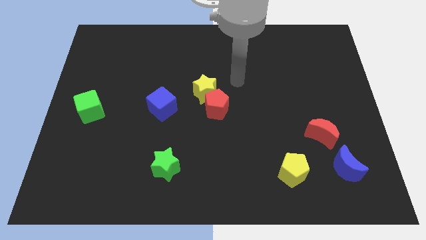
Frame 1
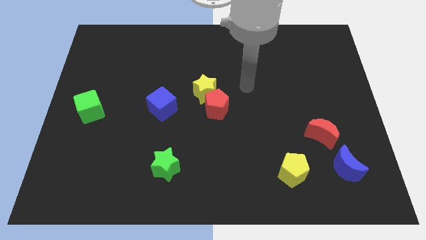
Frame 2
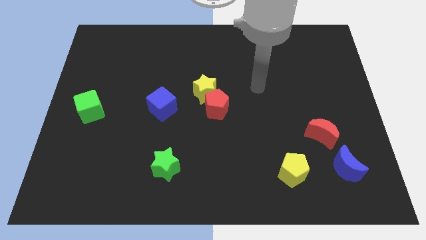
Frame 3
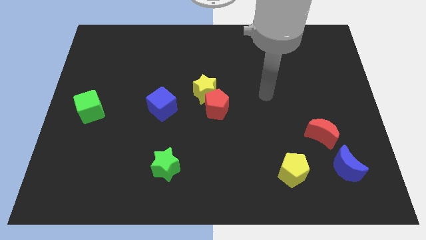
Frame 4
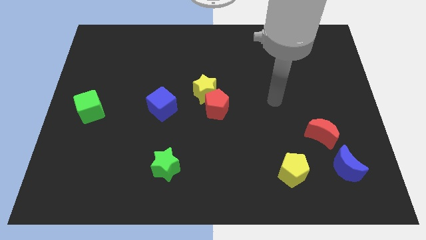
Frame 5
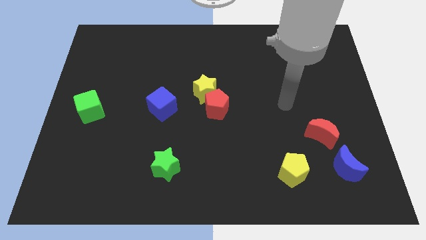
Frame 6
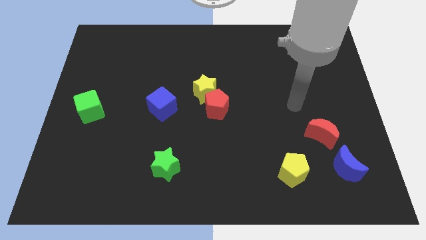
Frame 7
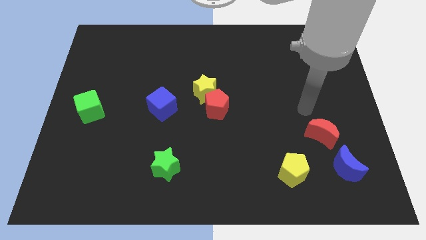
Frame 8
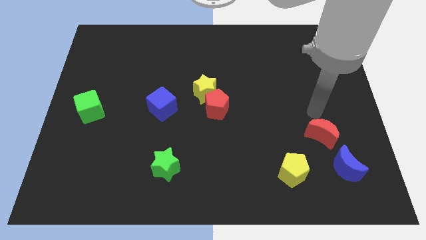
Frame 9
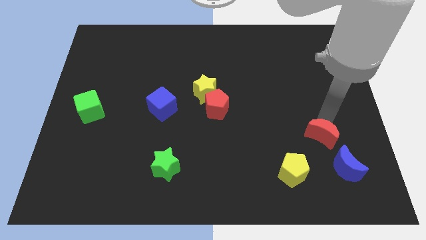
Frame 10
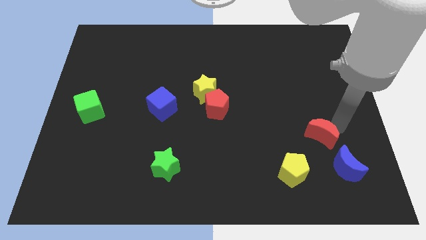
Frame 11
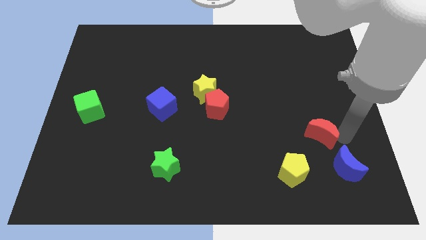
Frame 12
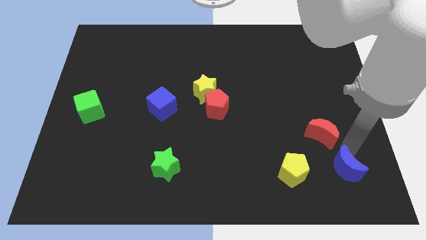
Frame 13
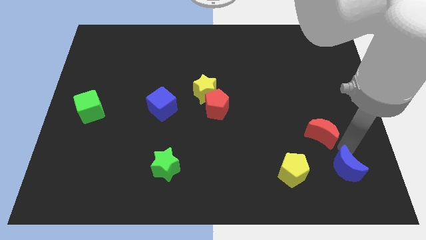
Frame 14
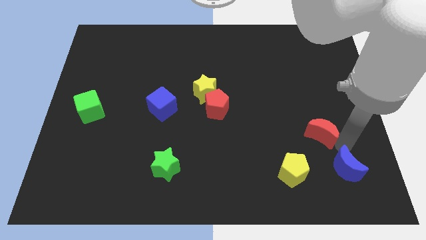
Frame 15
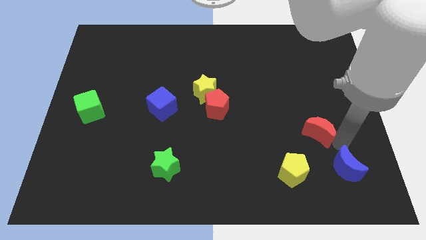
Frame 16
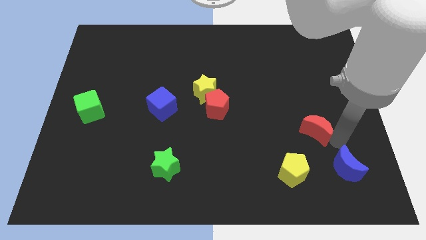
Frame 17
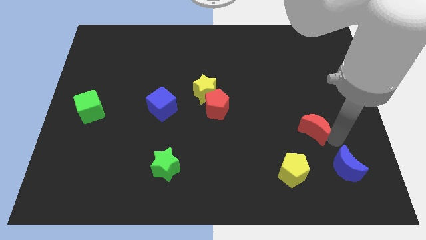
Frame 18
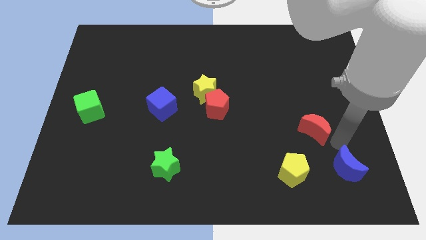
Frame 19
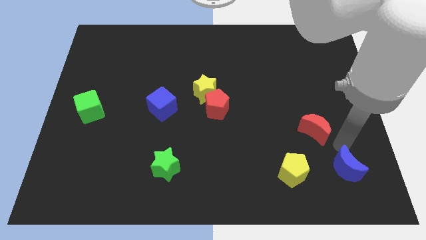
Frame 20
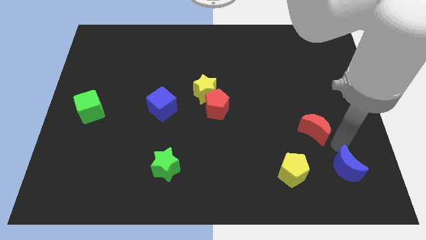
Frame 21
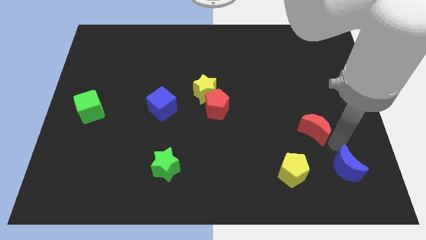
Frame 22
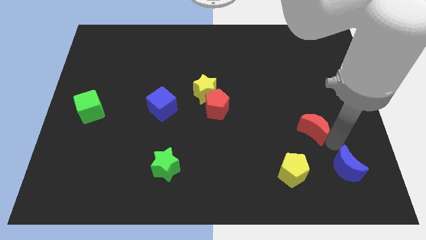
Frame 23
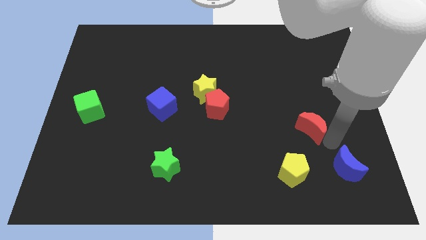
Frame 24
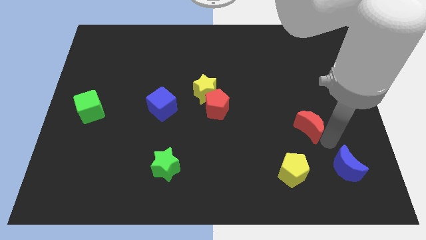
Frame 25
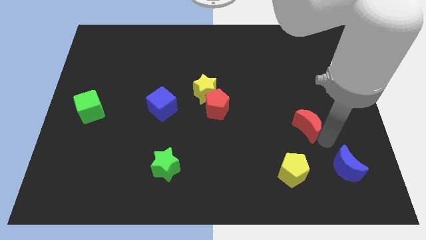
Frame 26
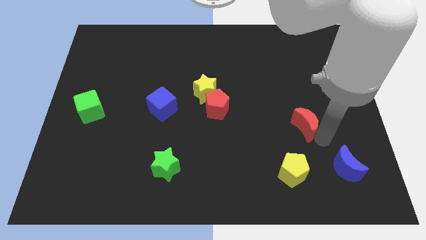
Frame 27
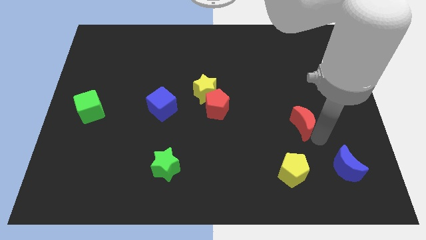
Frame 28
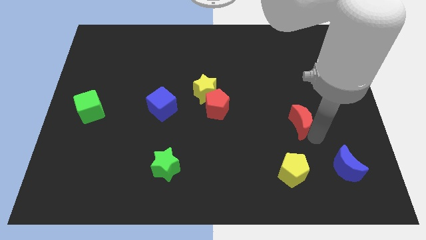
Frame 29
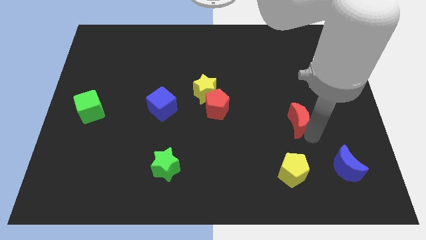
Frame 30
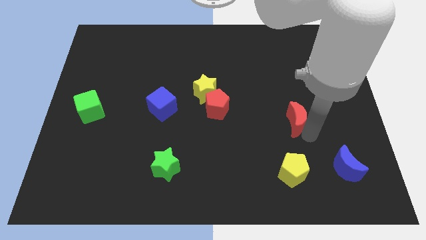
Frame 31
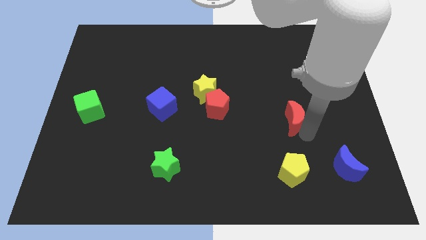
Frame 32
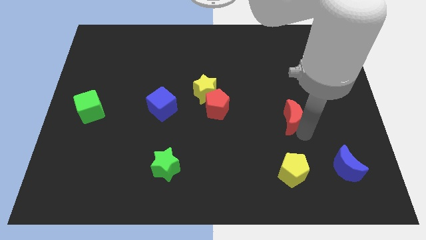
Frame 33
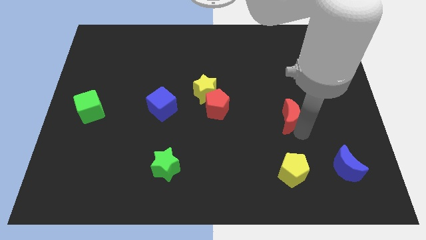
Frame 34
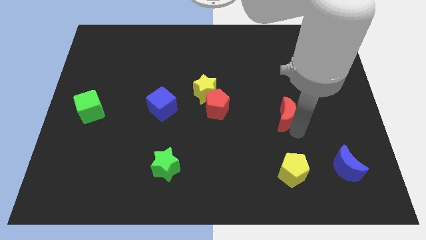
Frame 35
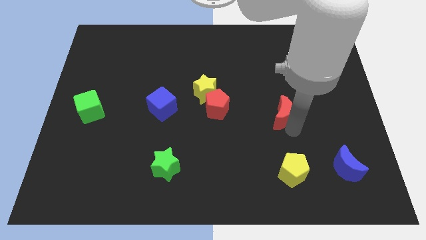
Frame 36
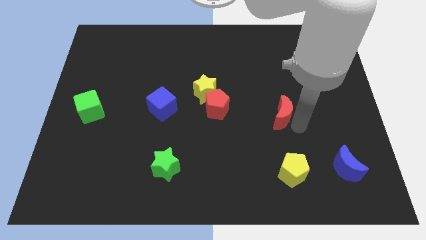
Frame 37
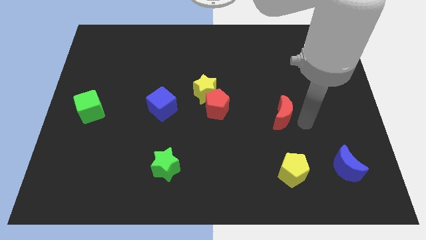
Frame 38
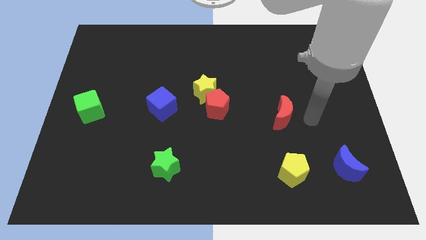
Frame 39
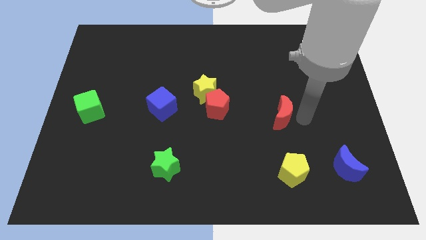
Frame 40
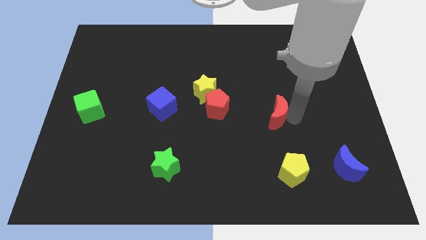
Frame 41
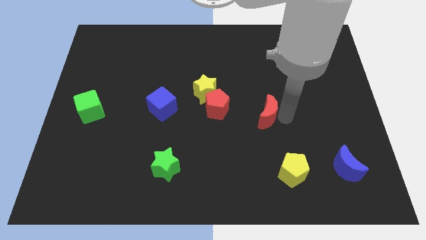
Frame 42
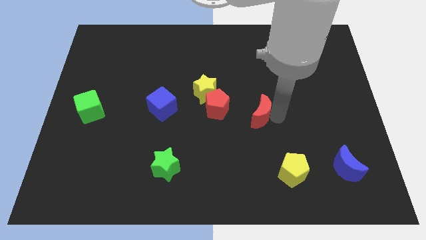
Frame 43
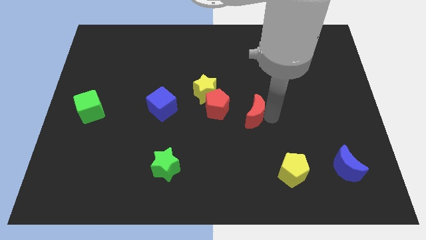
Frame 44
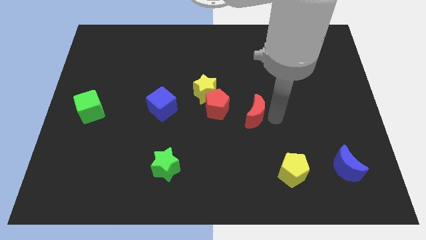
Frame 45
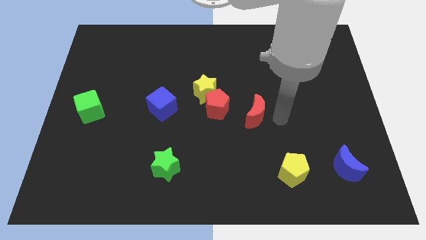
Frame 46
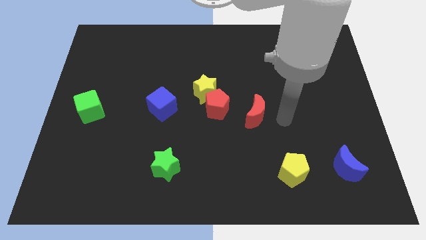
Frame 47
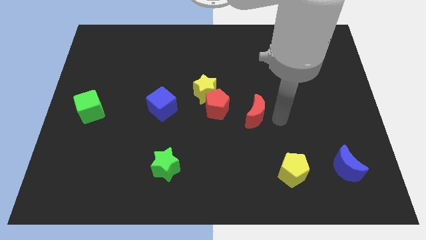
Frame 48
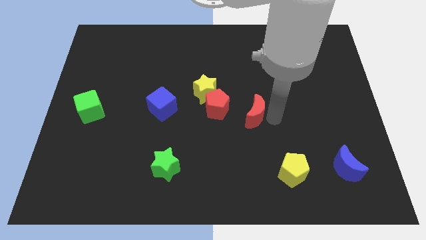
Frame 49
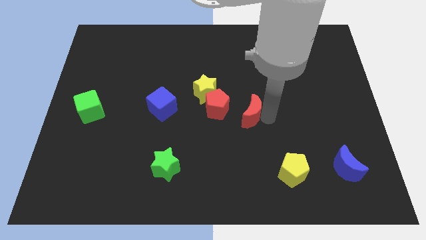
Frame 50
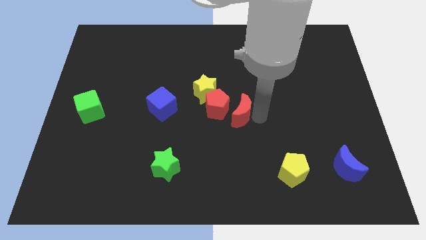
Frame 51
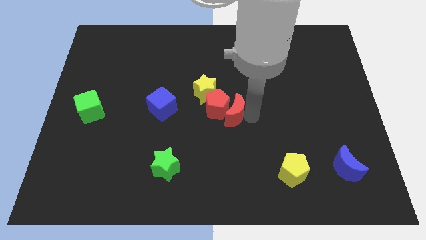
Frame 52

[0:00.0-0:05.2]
push the red moon to the red pentagon

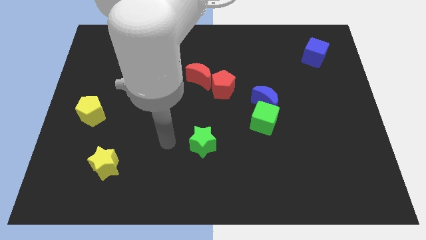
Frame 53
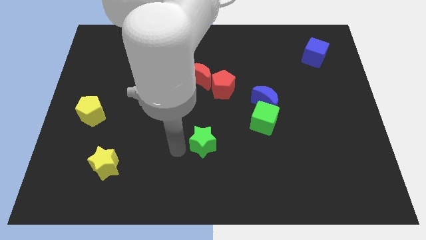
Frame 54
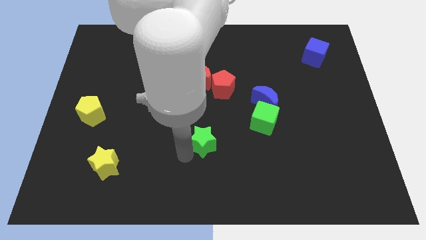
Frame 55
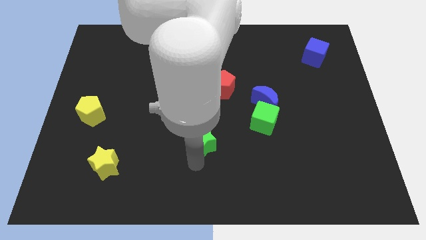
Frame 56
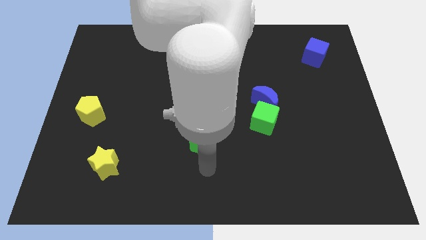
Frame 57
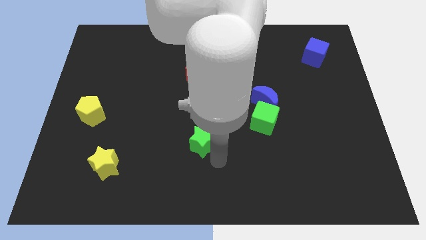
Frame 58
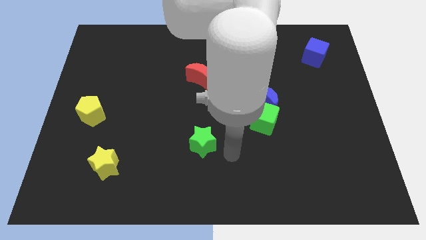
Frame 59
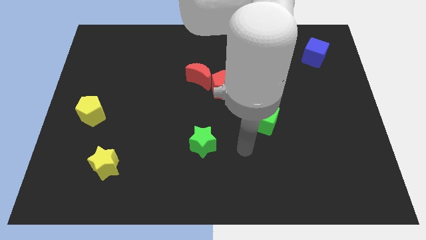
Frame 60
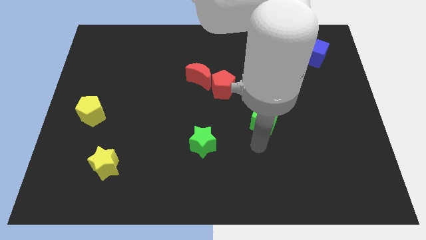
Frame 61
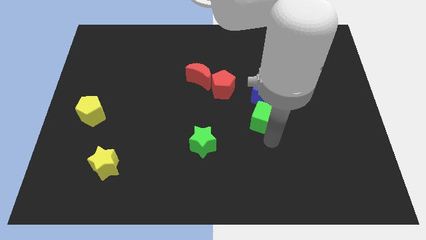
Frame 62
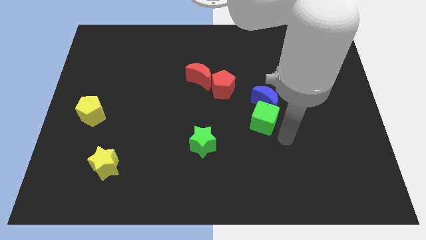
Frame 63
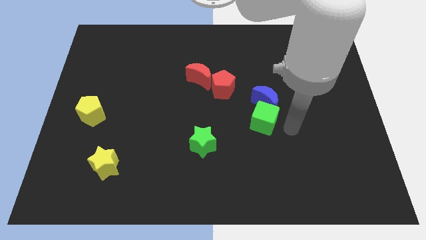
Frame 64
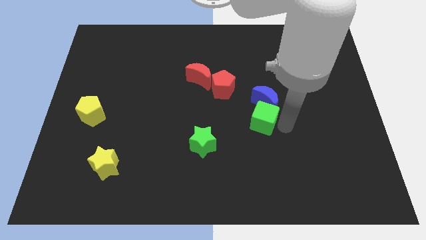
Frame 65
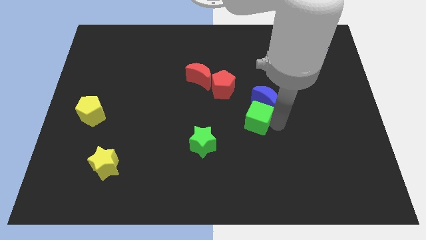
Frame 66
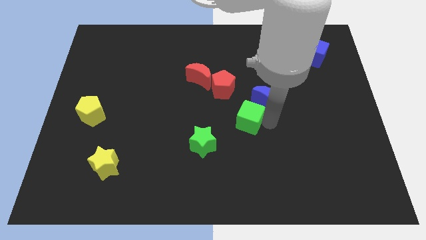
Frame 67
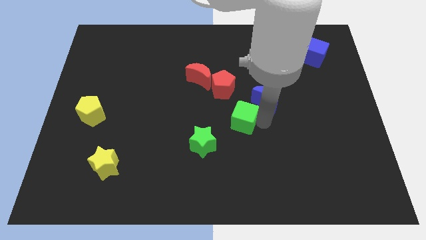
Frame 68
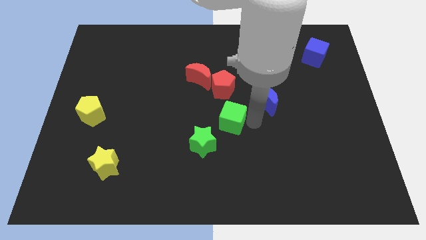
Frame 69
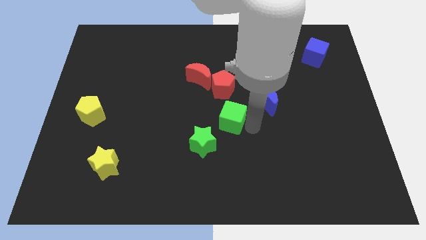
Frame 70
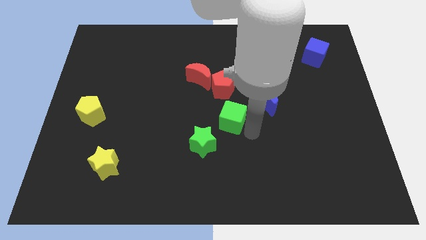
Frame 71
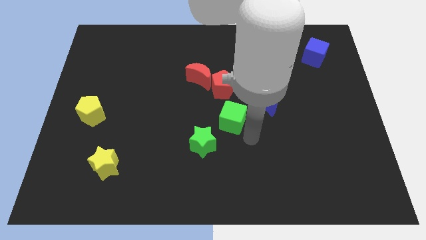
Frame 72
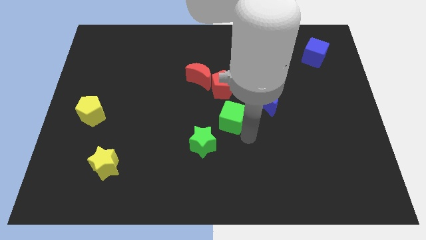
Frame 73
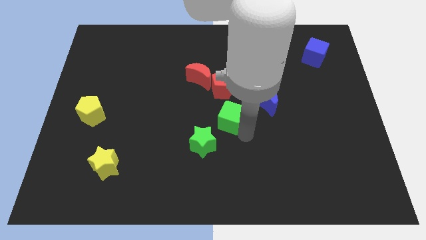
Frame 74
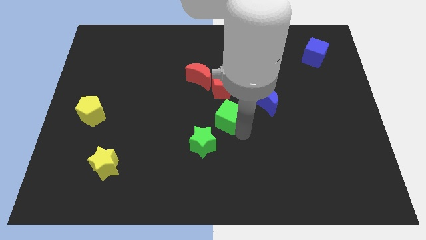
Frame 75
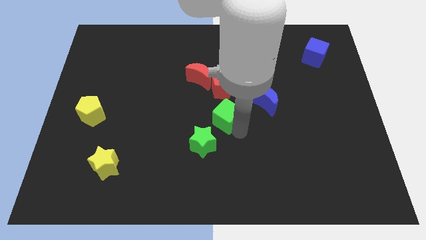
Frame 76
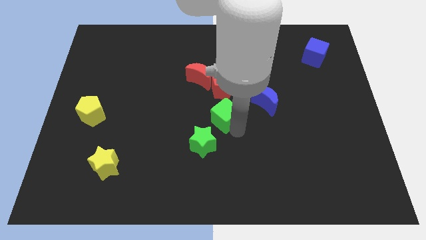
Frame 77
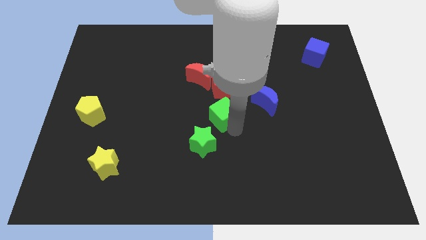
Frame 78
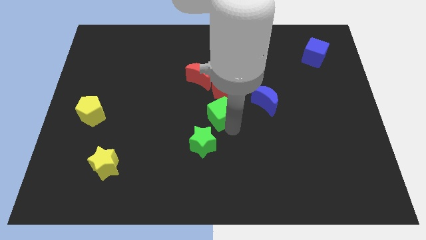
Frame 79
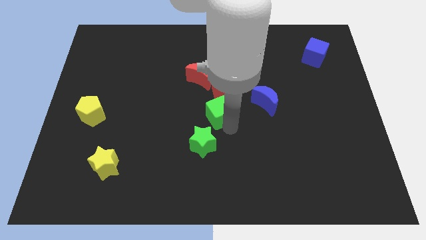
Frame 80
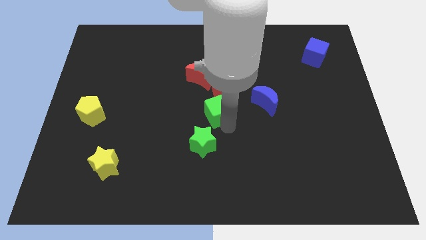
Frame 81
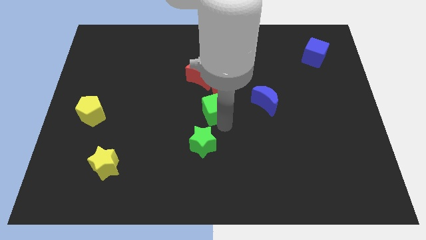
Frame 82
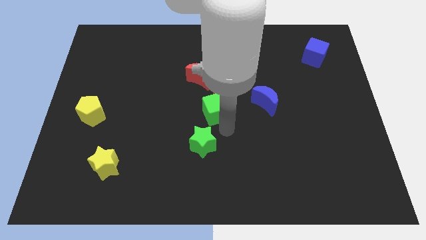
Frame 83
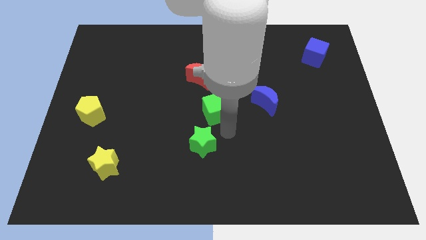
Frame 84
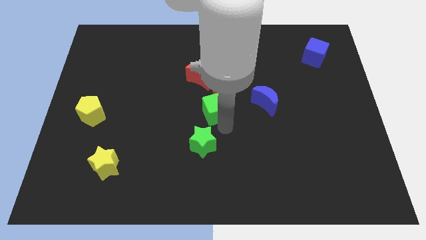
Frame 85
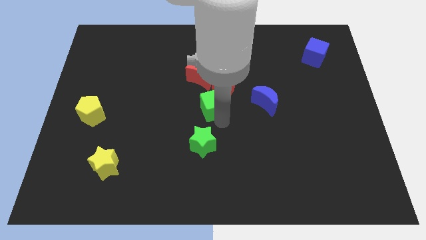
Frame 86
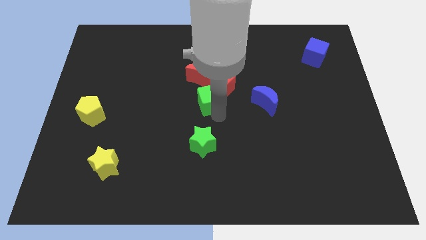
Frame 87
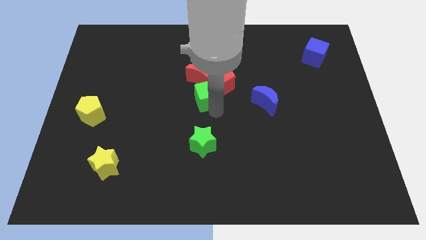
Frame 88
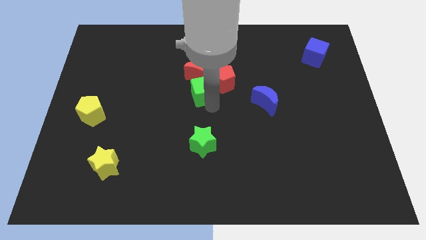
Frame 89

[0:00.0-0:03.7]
move the green cube next to the red moon
